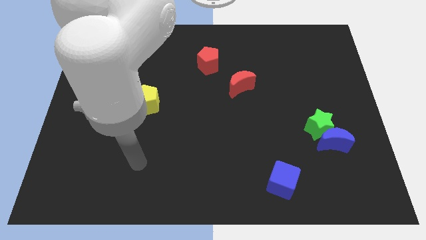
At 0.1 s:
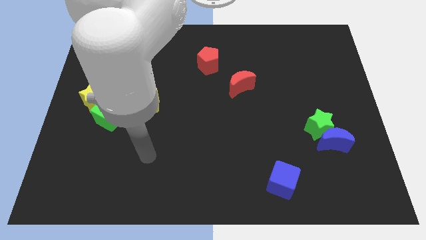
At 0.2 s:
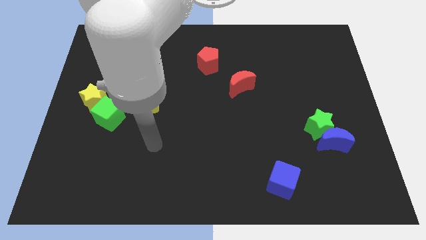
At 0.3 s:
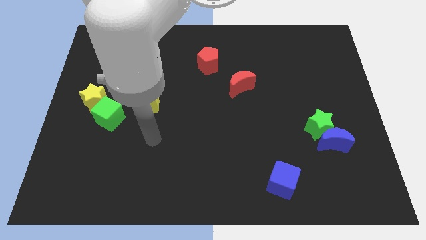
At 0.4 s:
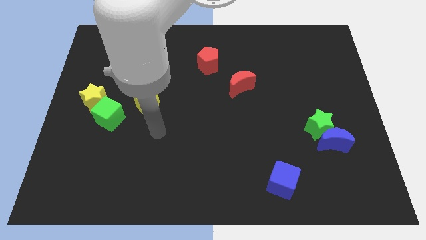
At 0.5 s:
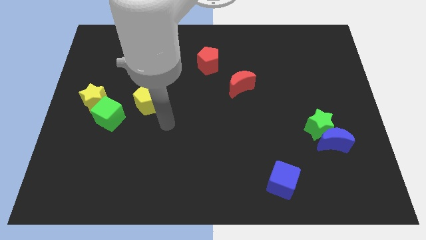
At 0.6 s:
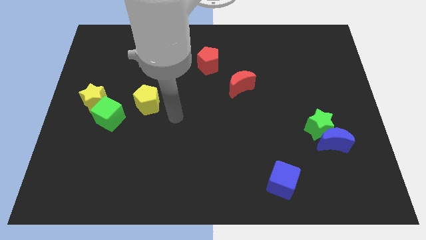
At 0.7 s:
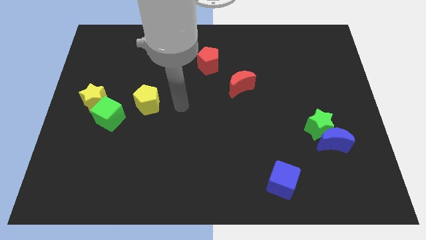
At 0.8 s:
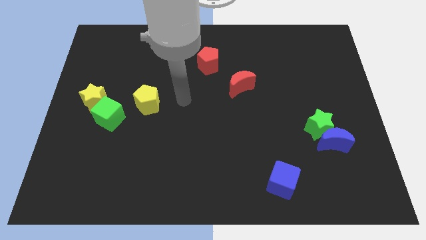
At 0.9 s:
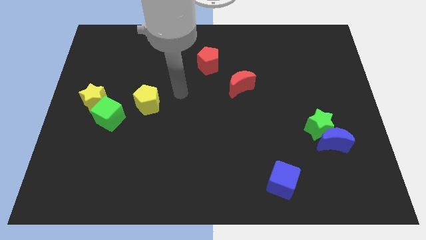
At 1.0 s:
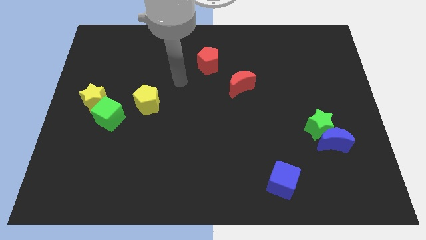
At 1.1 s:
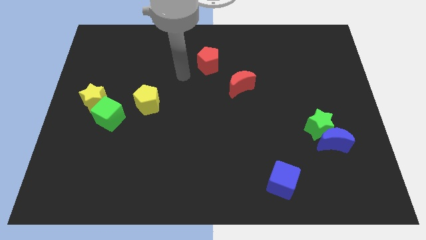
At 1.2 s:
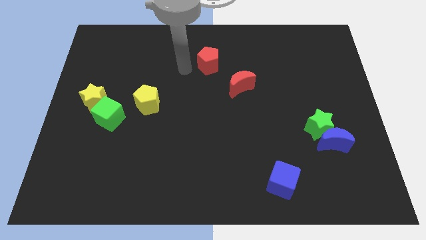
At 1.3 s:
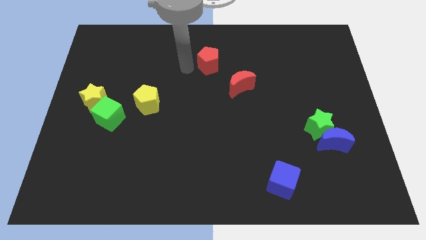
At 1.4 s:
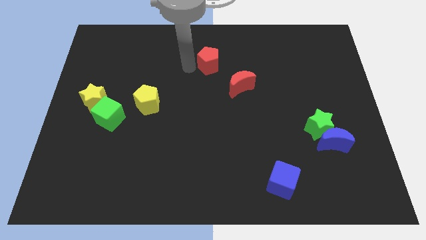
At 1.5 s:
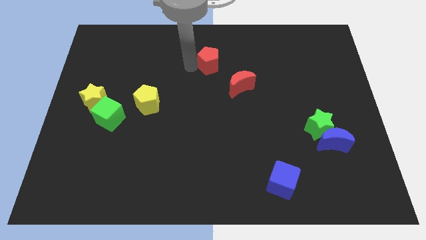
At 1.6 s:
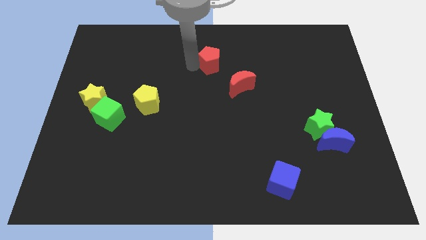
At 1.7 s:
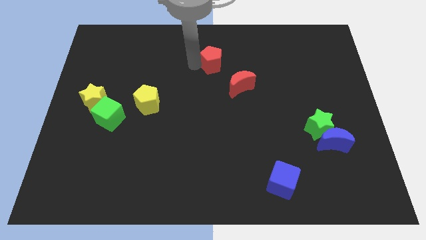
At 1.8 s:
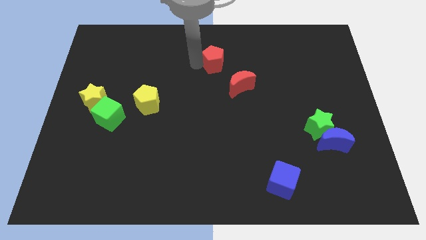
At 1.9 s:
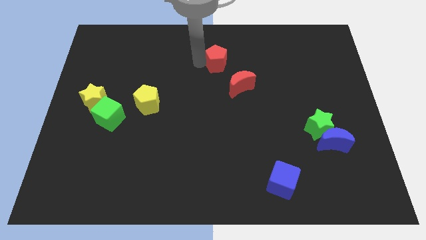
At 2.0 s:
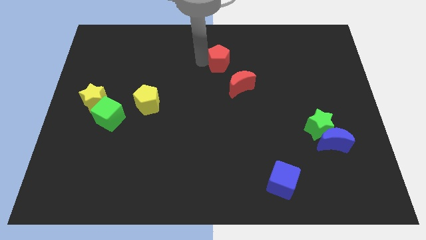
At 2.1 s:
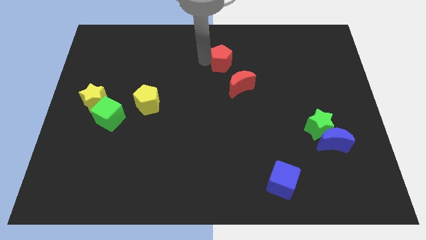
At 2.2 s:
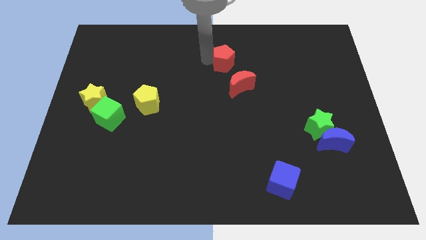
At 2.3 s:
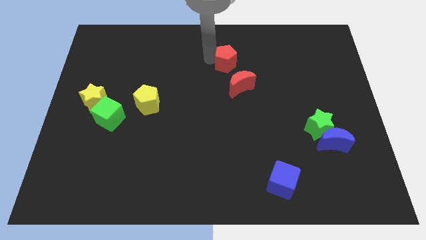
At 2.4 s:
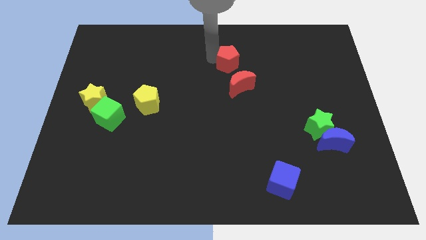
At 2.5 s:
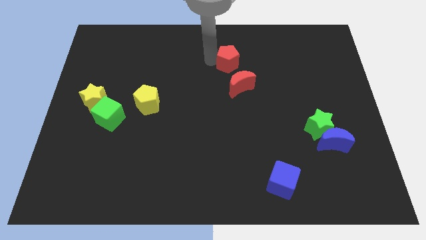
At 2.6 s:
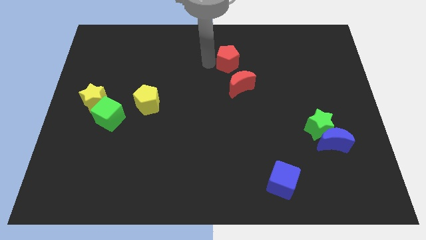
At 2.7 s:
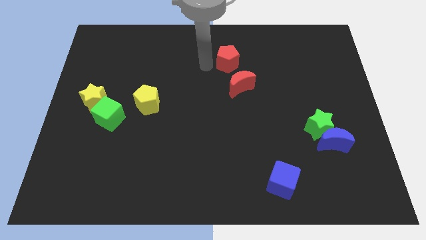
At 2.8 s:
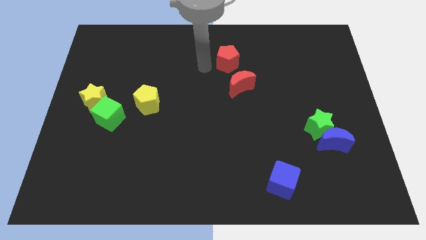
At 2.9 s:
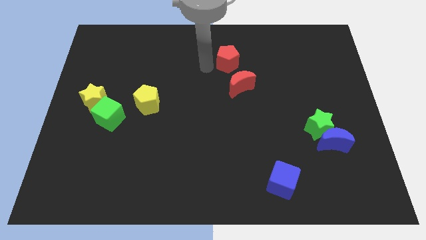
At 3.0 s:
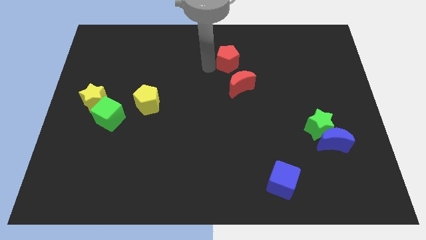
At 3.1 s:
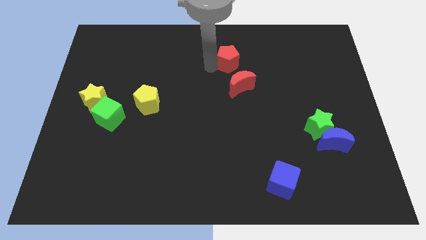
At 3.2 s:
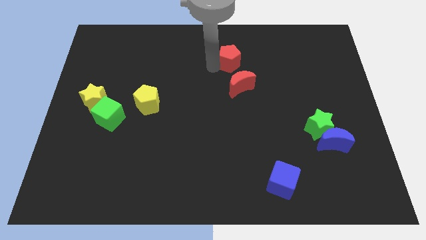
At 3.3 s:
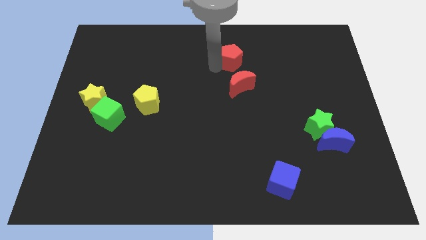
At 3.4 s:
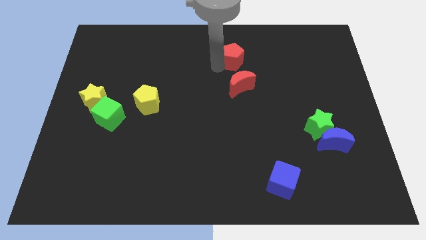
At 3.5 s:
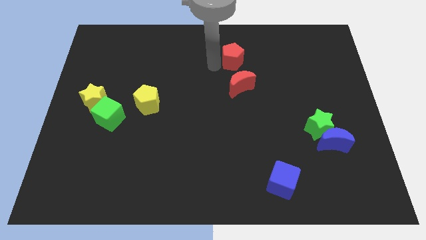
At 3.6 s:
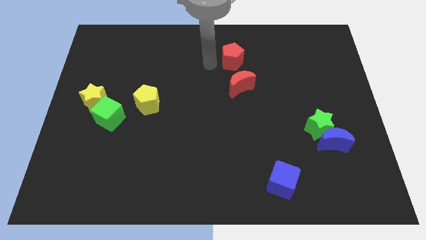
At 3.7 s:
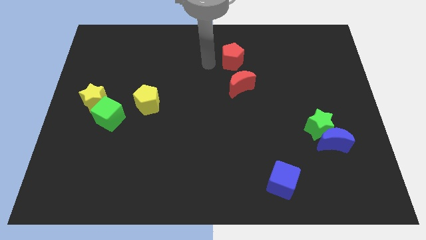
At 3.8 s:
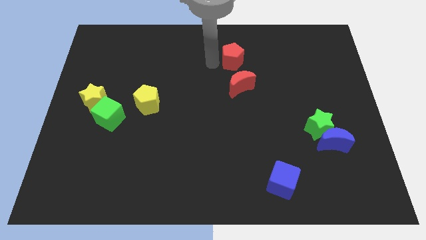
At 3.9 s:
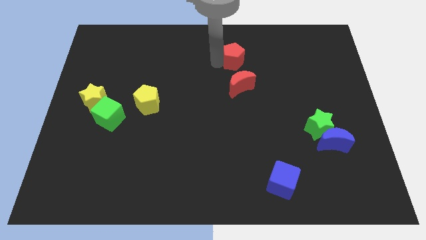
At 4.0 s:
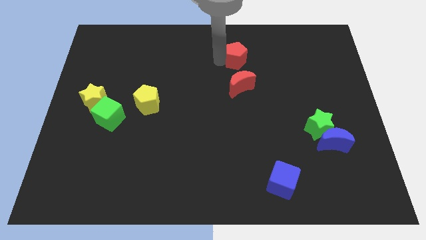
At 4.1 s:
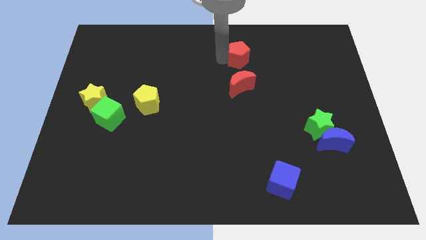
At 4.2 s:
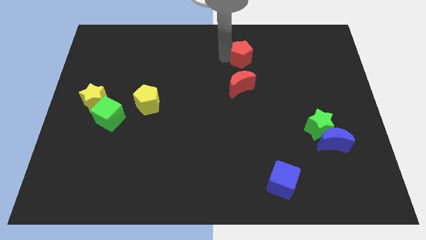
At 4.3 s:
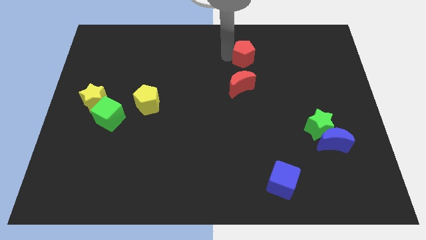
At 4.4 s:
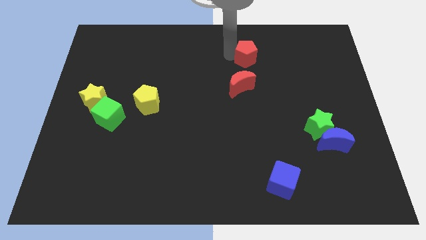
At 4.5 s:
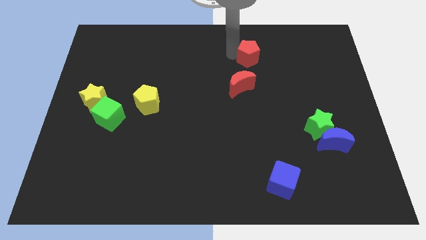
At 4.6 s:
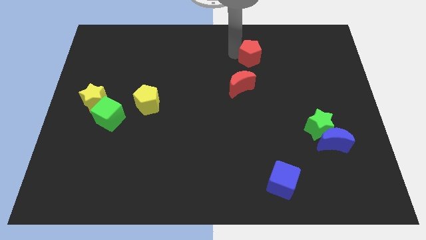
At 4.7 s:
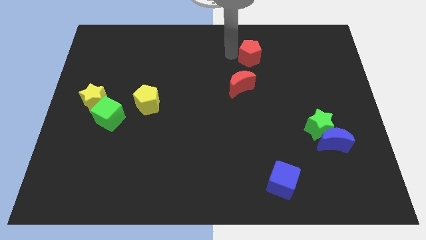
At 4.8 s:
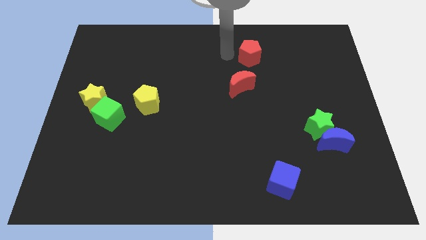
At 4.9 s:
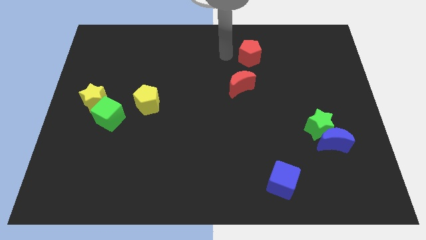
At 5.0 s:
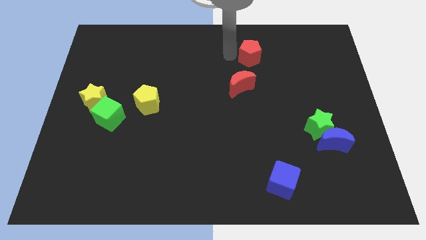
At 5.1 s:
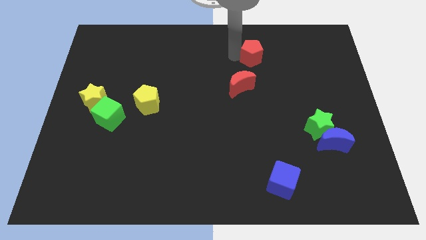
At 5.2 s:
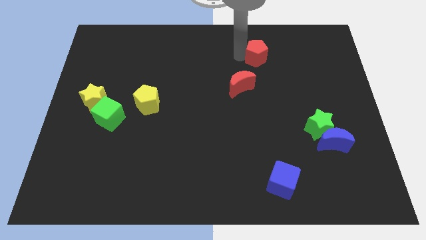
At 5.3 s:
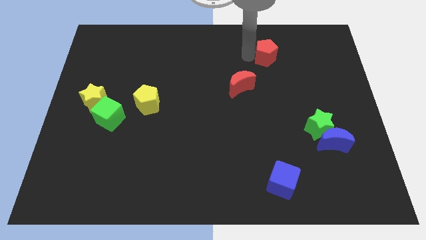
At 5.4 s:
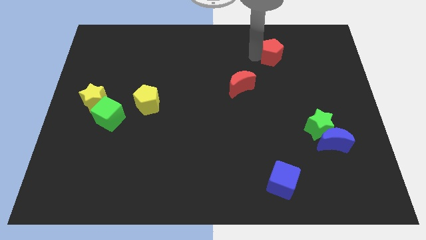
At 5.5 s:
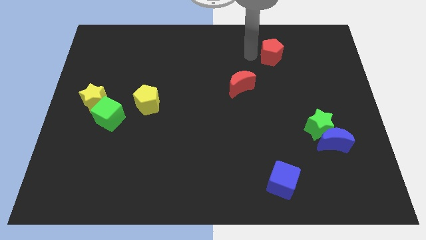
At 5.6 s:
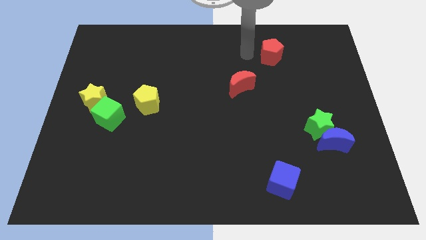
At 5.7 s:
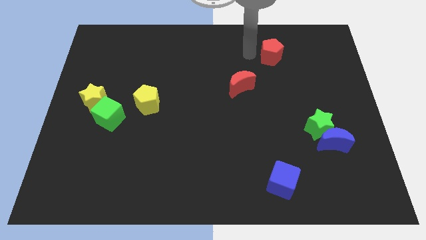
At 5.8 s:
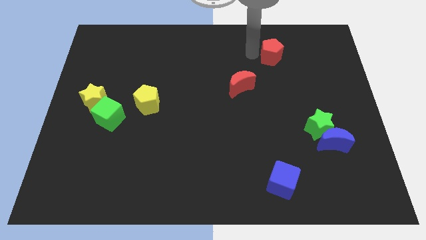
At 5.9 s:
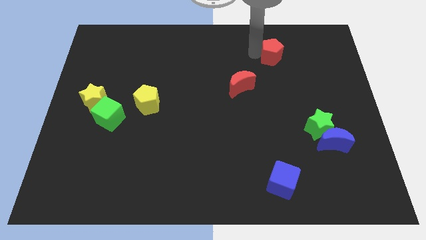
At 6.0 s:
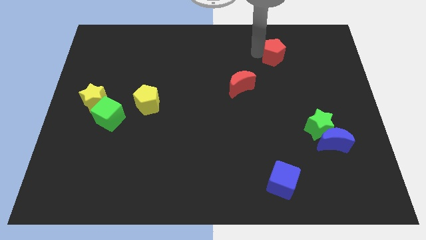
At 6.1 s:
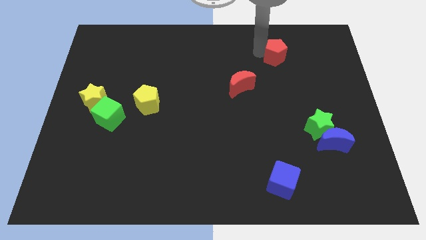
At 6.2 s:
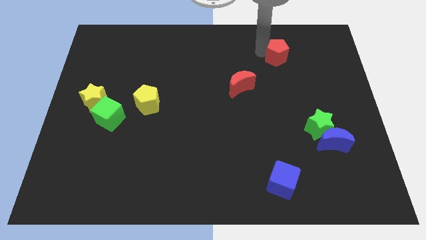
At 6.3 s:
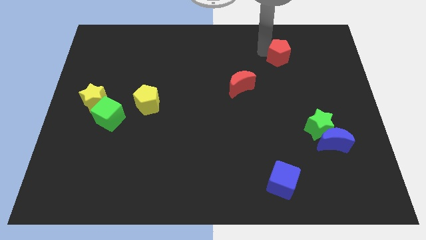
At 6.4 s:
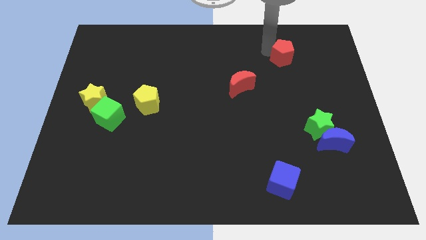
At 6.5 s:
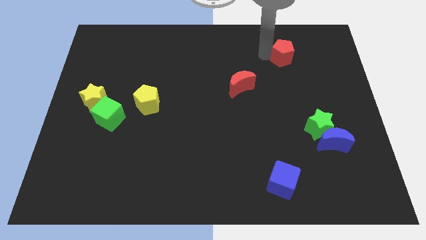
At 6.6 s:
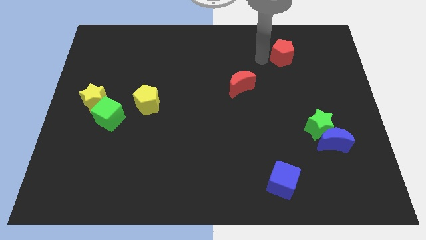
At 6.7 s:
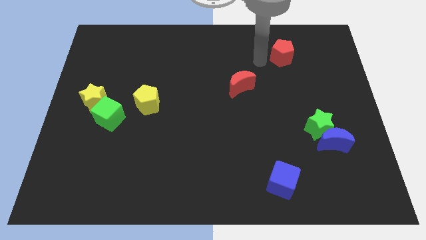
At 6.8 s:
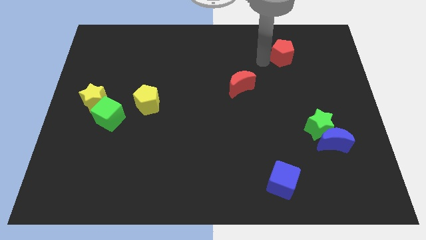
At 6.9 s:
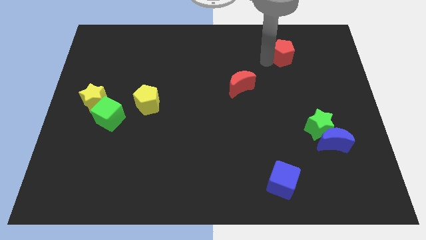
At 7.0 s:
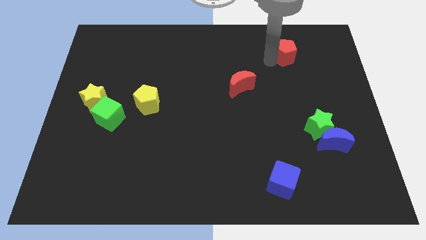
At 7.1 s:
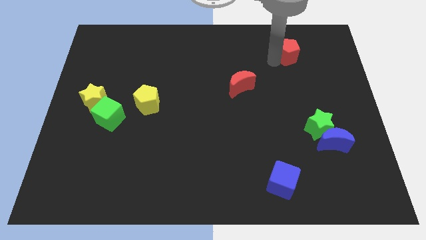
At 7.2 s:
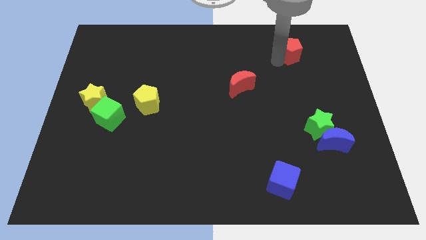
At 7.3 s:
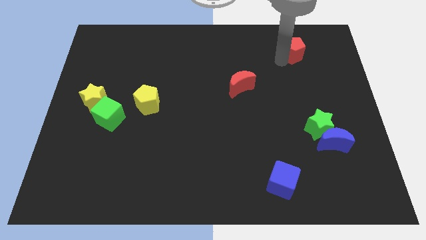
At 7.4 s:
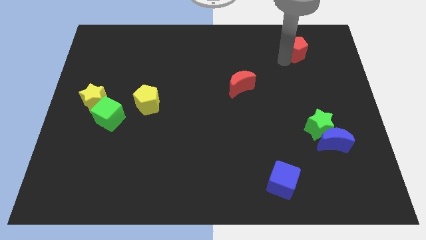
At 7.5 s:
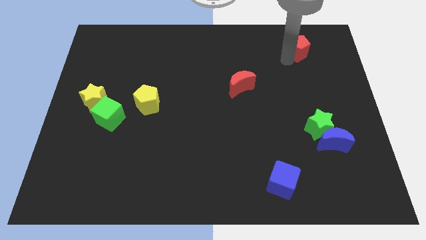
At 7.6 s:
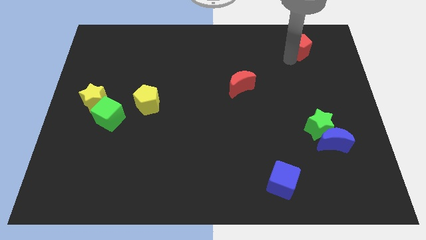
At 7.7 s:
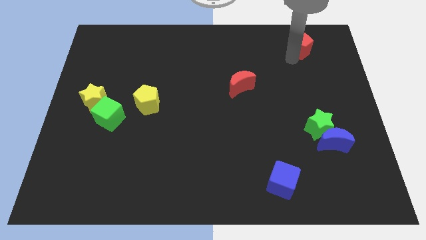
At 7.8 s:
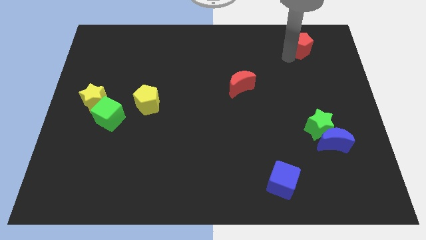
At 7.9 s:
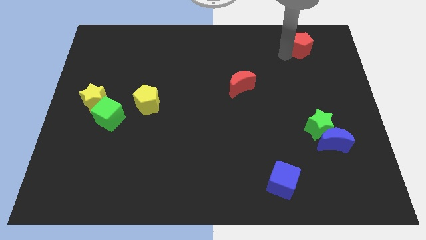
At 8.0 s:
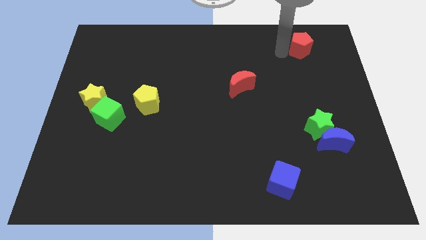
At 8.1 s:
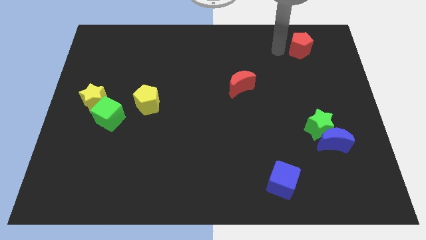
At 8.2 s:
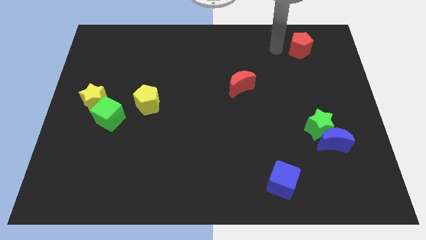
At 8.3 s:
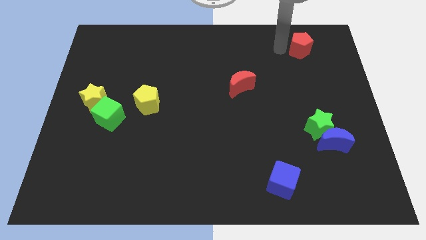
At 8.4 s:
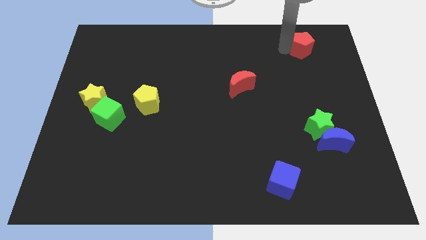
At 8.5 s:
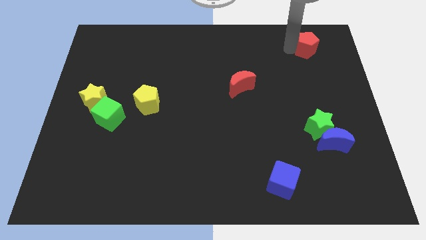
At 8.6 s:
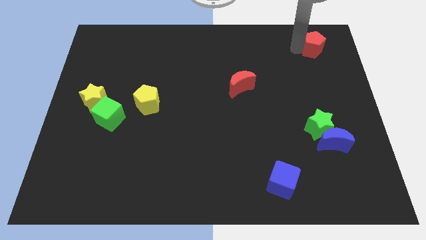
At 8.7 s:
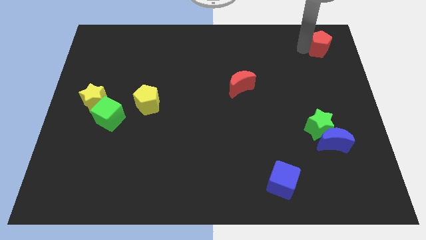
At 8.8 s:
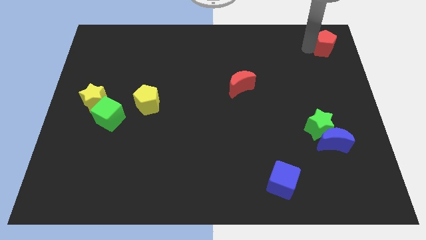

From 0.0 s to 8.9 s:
slide the red pentagon to the upper right corner
